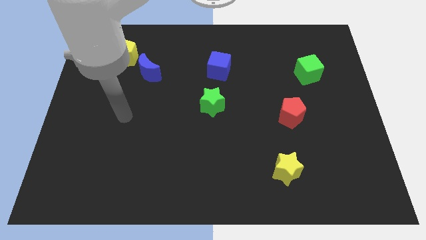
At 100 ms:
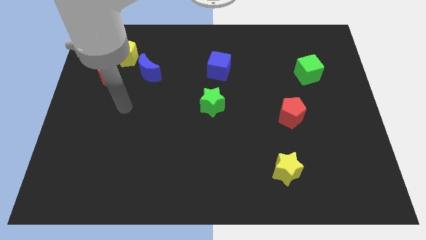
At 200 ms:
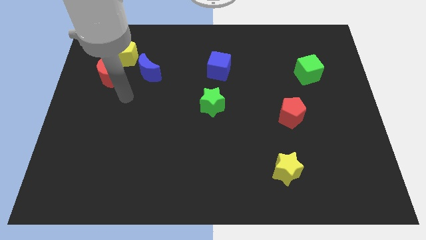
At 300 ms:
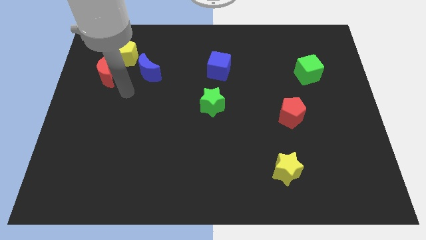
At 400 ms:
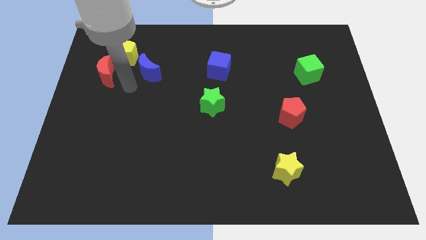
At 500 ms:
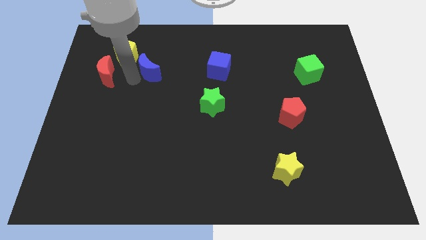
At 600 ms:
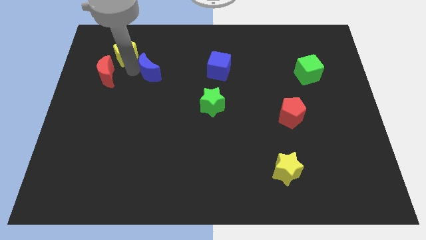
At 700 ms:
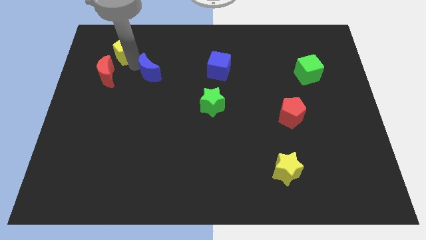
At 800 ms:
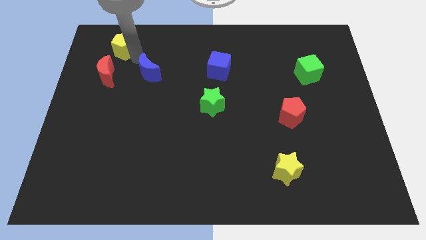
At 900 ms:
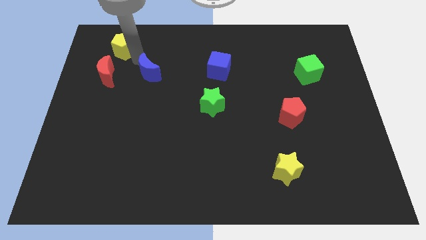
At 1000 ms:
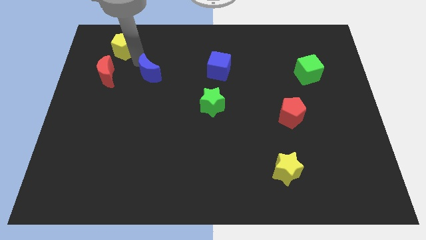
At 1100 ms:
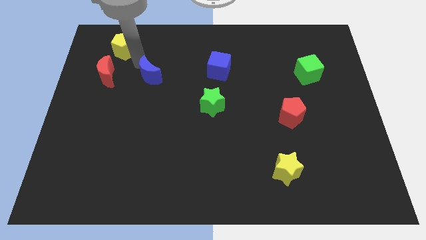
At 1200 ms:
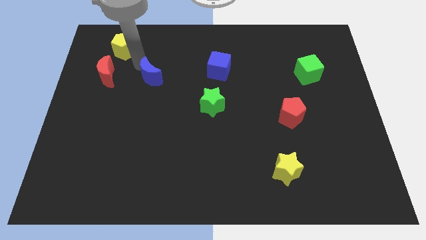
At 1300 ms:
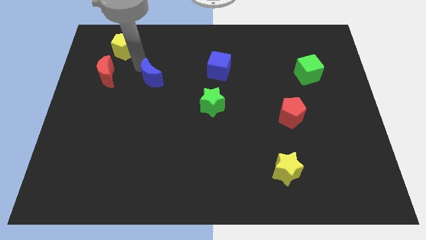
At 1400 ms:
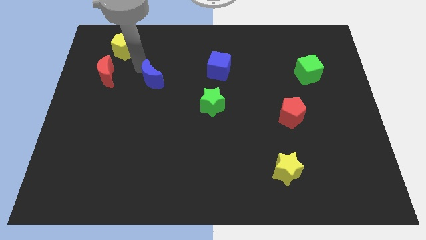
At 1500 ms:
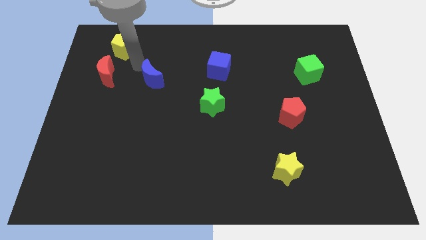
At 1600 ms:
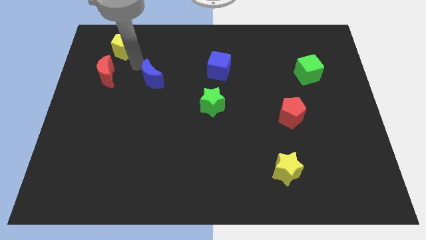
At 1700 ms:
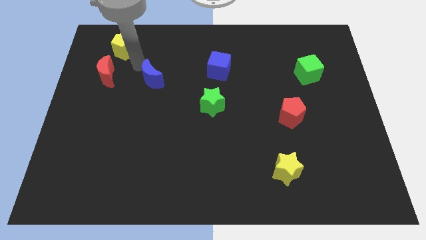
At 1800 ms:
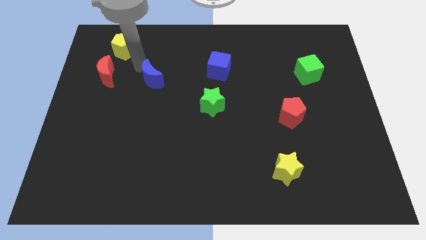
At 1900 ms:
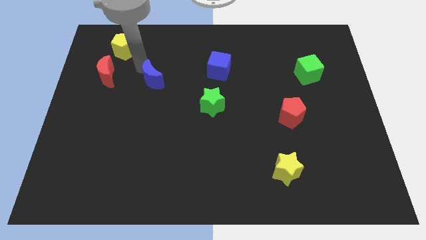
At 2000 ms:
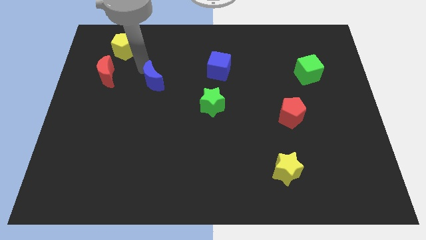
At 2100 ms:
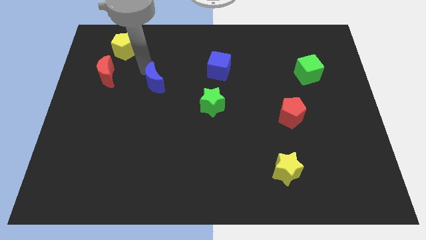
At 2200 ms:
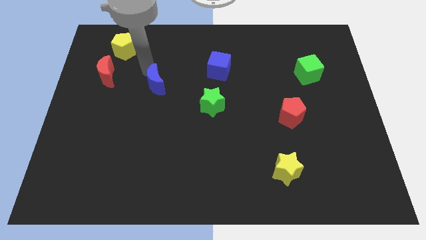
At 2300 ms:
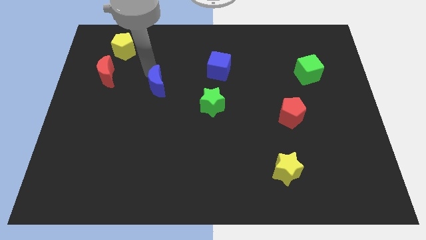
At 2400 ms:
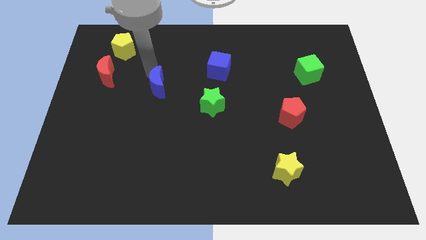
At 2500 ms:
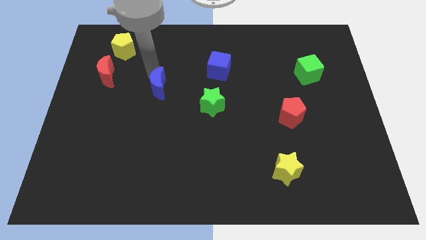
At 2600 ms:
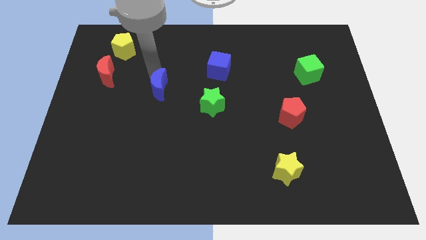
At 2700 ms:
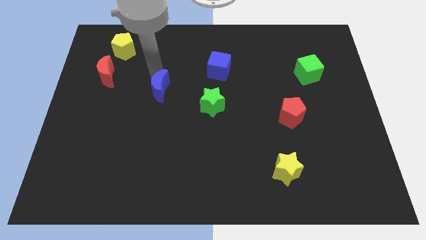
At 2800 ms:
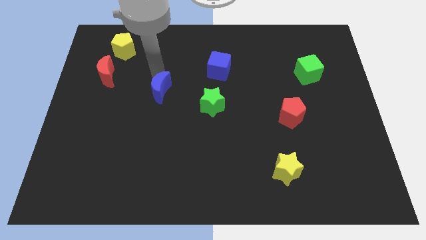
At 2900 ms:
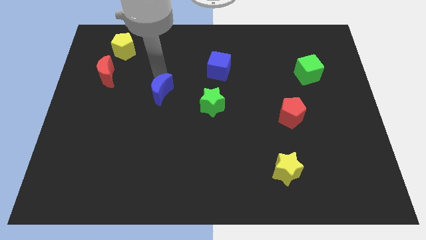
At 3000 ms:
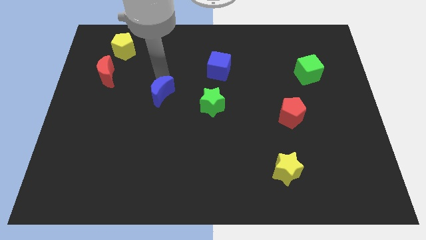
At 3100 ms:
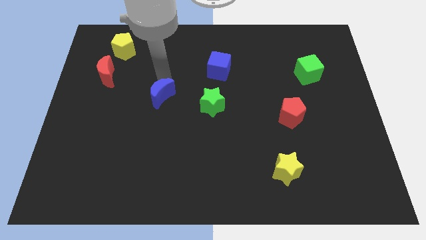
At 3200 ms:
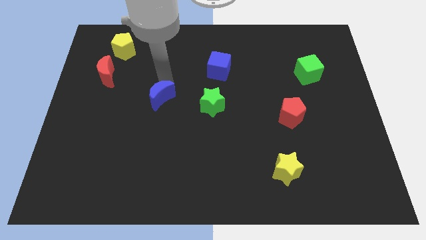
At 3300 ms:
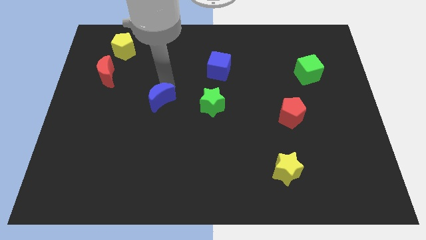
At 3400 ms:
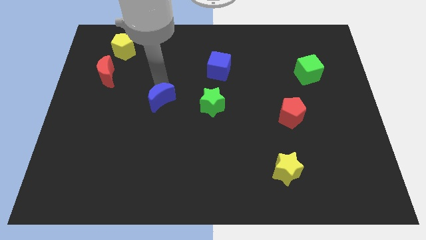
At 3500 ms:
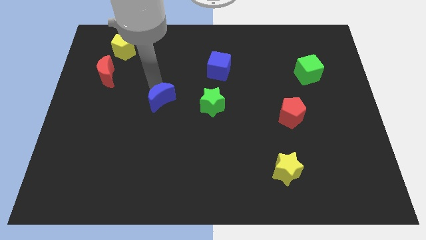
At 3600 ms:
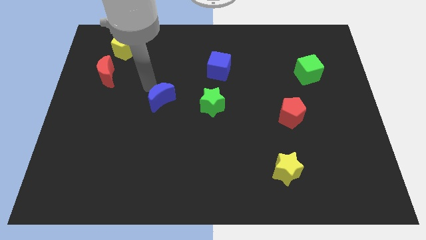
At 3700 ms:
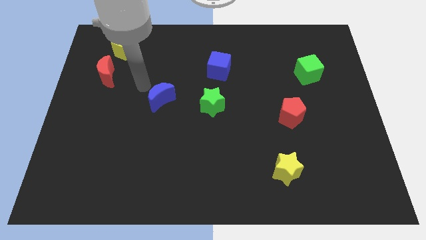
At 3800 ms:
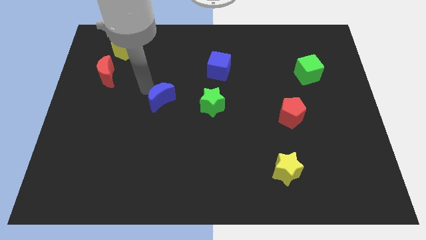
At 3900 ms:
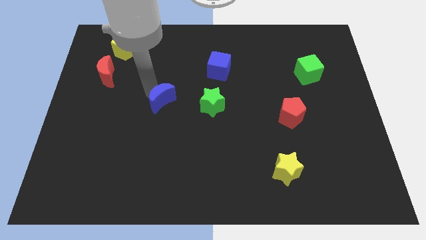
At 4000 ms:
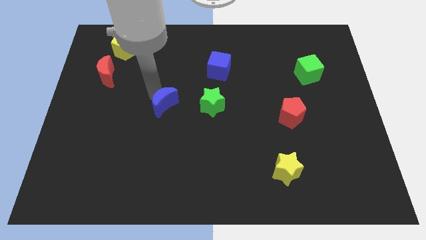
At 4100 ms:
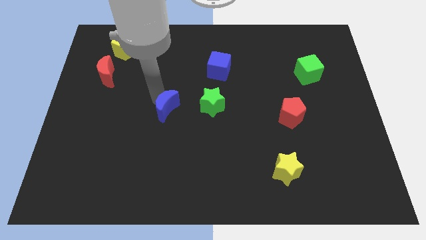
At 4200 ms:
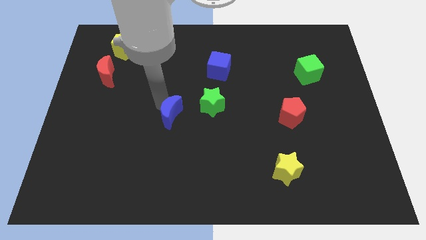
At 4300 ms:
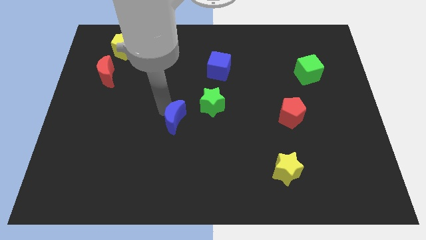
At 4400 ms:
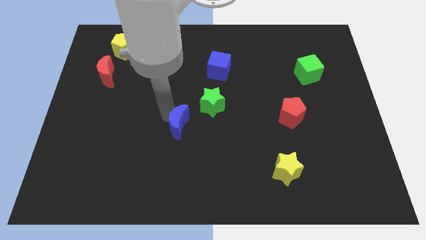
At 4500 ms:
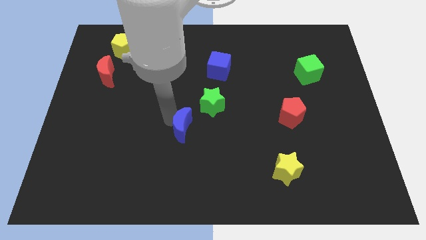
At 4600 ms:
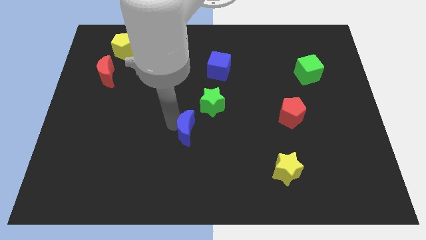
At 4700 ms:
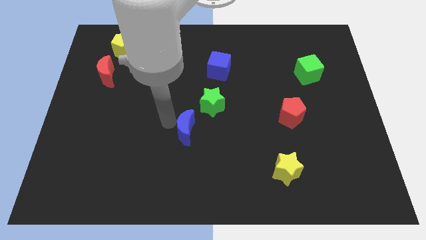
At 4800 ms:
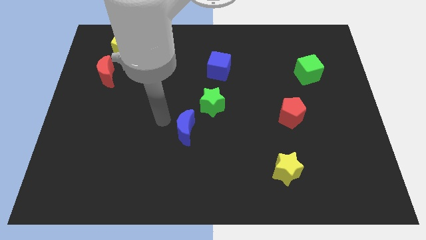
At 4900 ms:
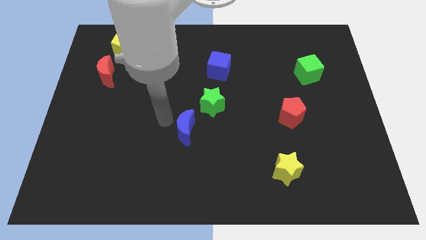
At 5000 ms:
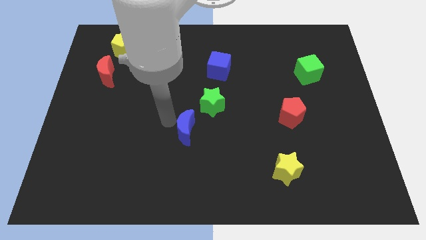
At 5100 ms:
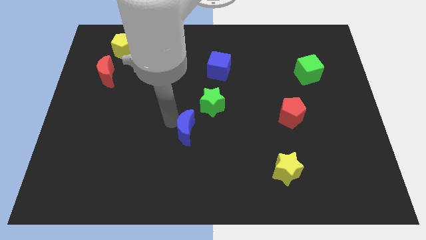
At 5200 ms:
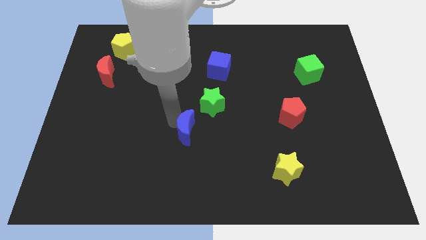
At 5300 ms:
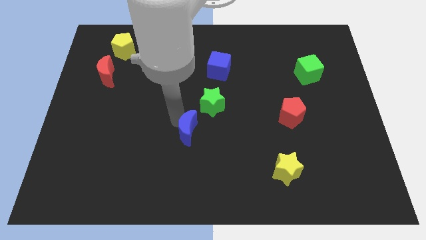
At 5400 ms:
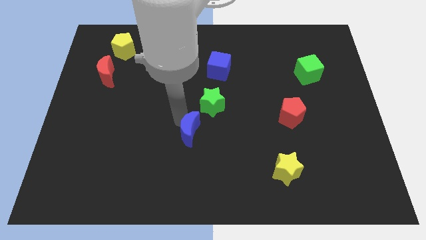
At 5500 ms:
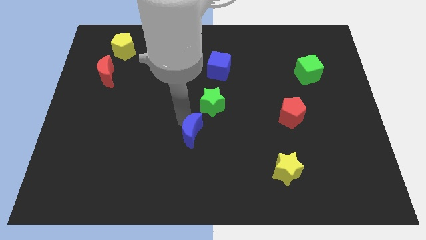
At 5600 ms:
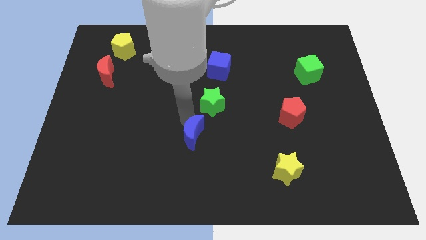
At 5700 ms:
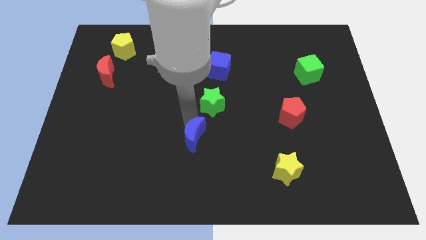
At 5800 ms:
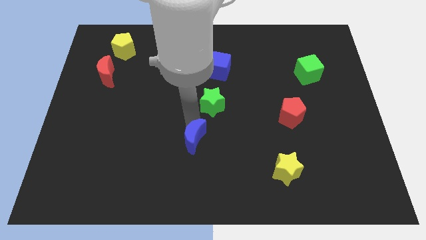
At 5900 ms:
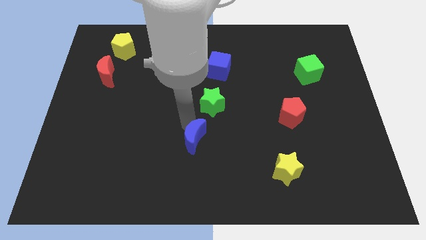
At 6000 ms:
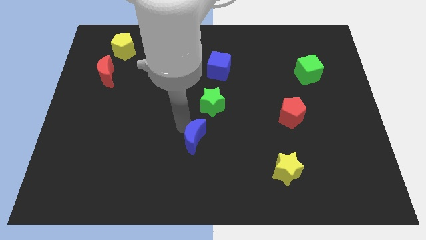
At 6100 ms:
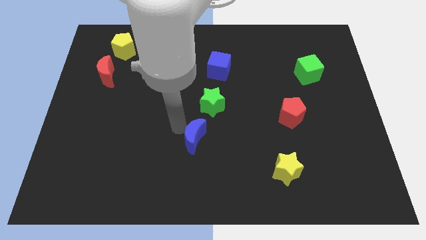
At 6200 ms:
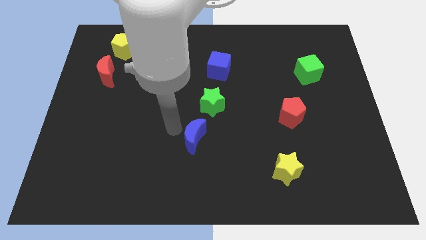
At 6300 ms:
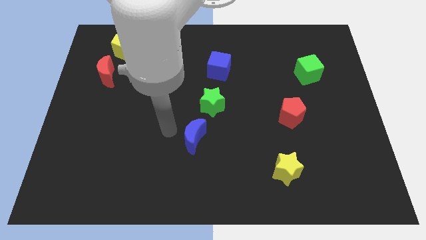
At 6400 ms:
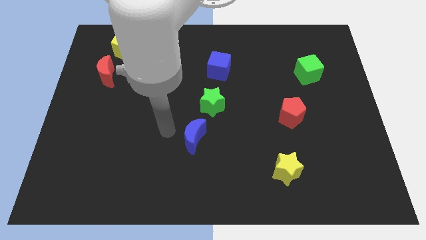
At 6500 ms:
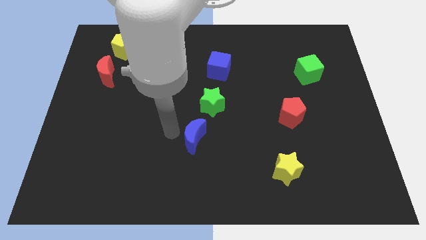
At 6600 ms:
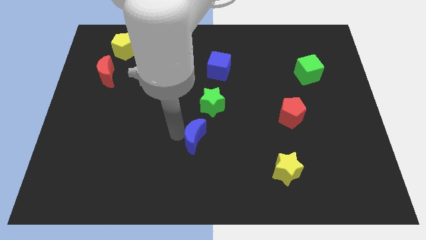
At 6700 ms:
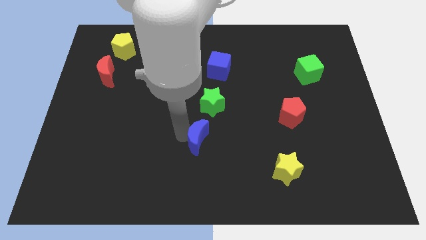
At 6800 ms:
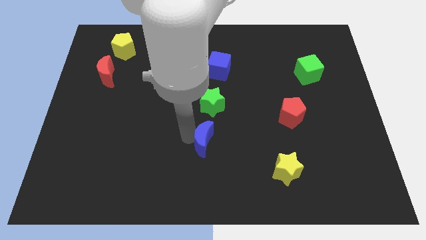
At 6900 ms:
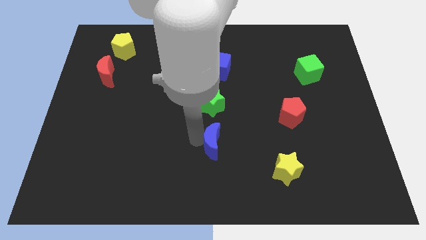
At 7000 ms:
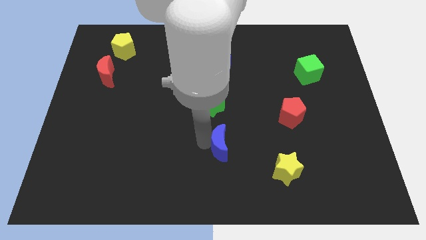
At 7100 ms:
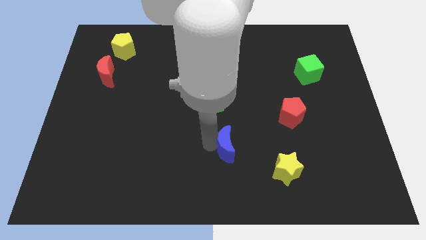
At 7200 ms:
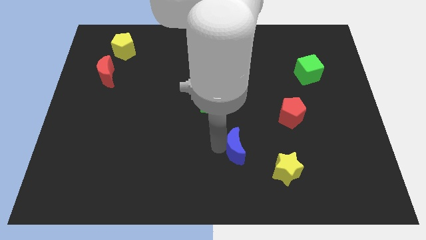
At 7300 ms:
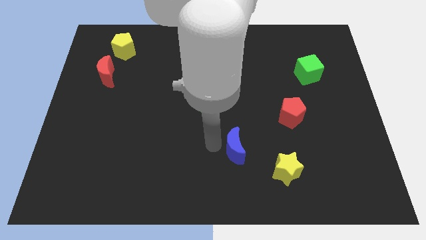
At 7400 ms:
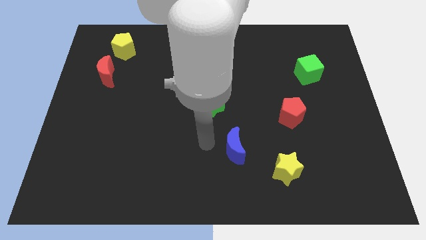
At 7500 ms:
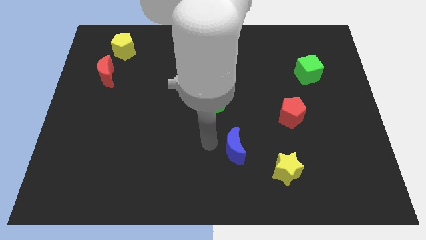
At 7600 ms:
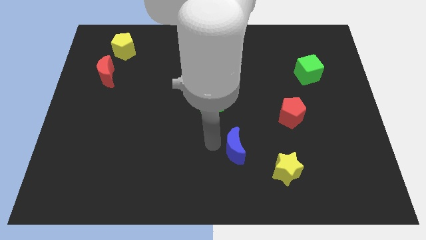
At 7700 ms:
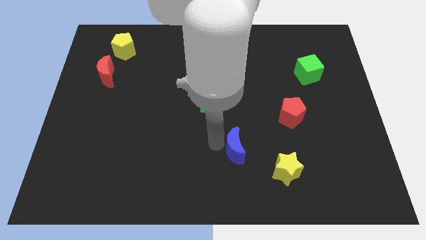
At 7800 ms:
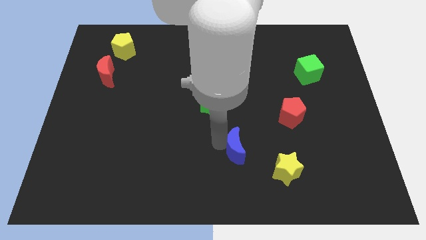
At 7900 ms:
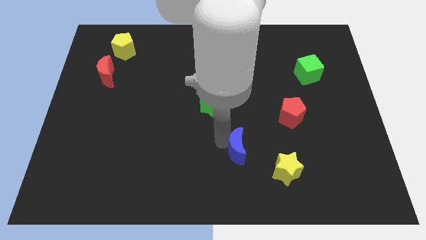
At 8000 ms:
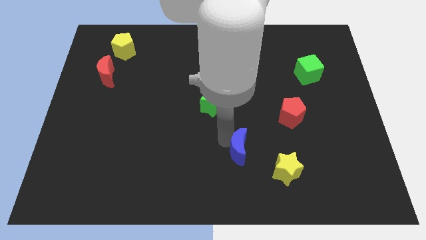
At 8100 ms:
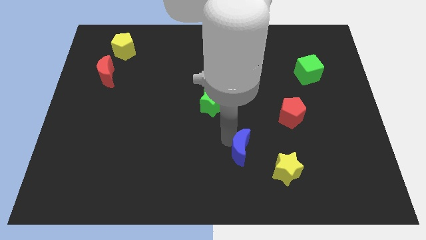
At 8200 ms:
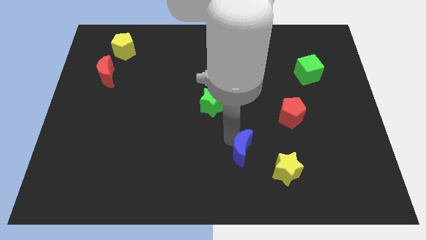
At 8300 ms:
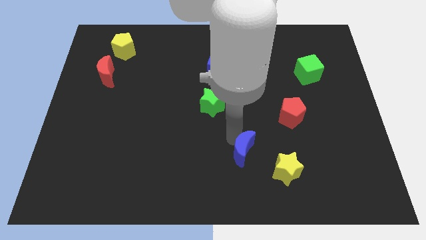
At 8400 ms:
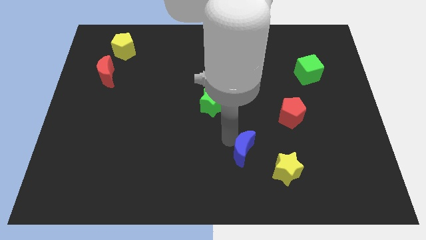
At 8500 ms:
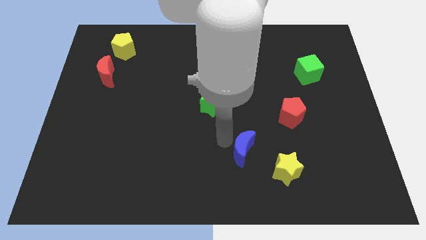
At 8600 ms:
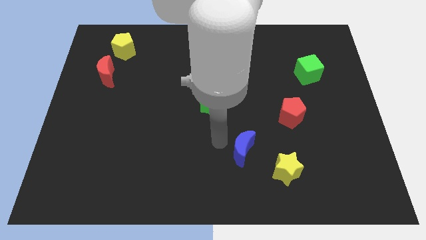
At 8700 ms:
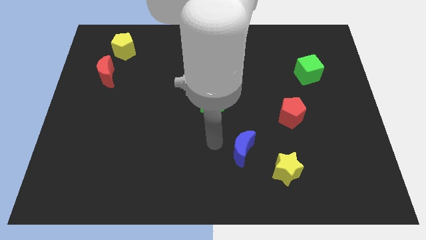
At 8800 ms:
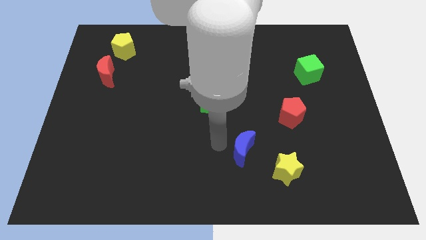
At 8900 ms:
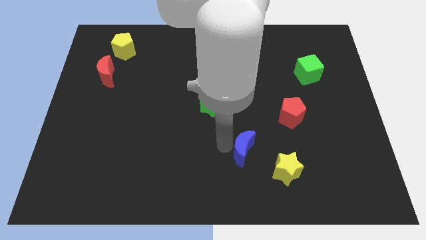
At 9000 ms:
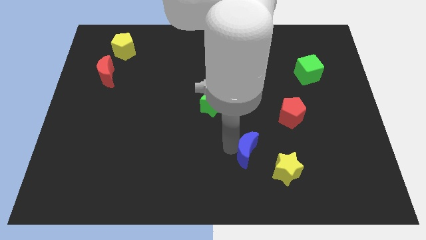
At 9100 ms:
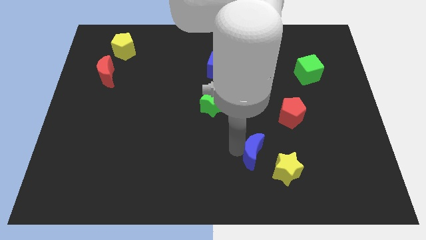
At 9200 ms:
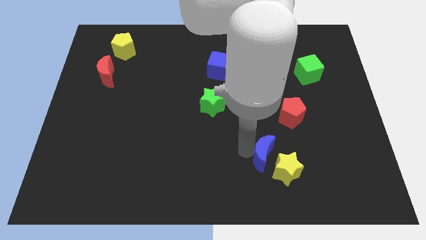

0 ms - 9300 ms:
move the blue moon to the yellow star
